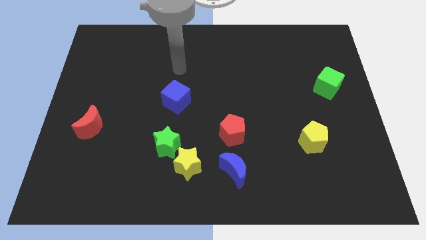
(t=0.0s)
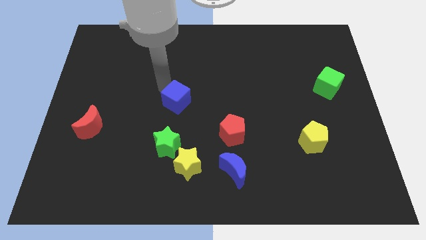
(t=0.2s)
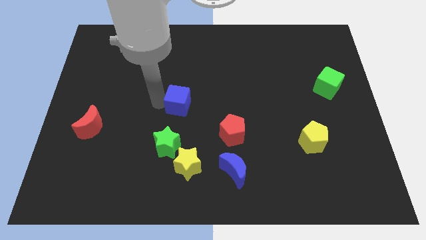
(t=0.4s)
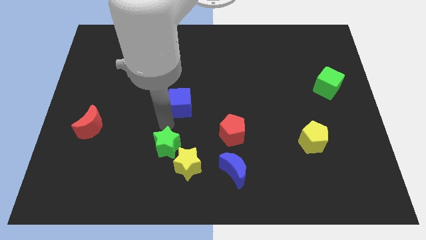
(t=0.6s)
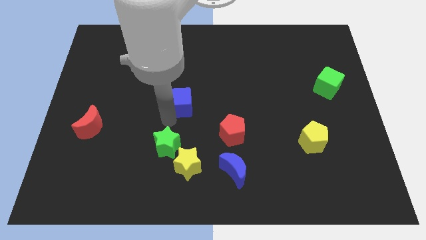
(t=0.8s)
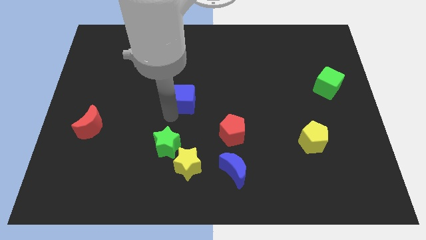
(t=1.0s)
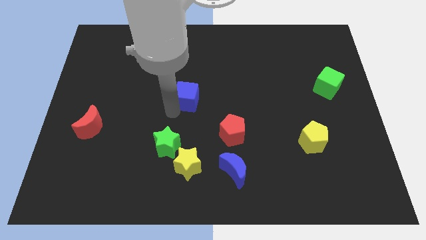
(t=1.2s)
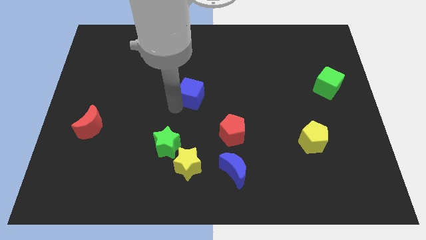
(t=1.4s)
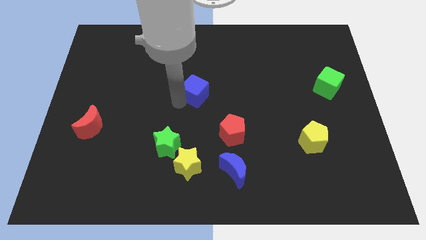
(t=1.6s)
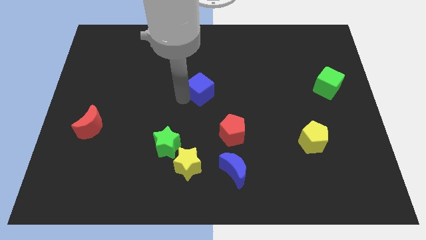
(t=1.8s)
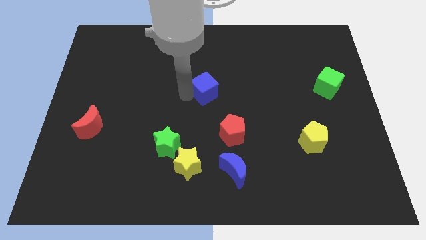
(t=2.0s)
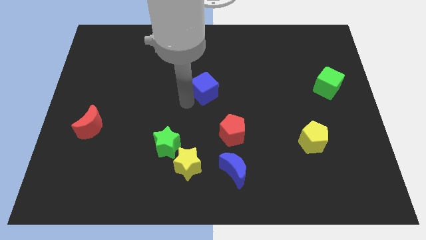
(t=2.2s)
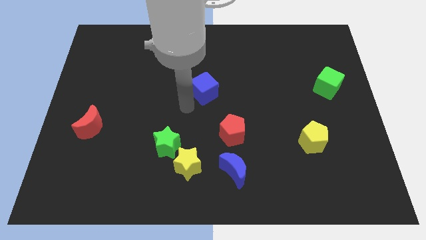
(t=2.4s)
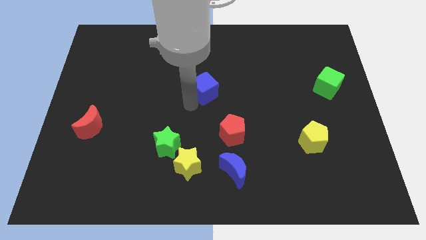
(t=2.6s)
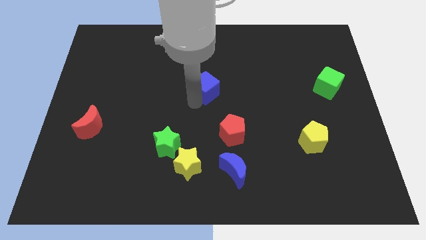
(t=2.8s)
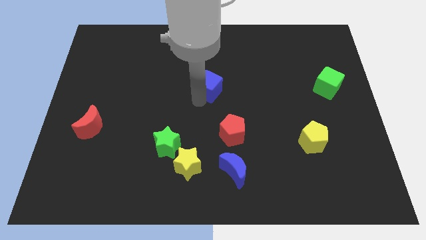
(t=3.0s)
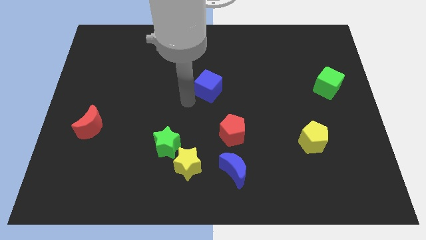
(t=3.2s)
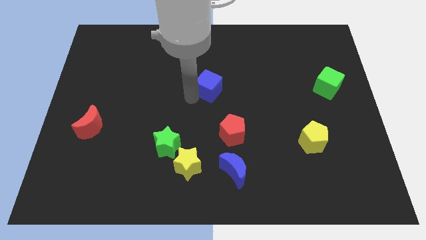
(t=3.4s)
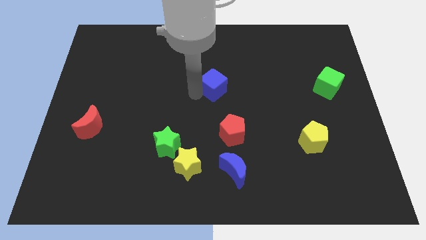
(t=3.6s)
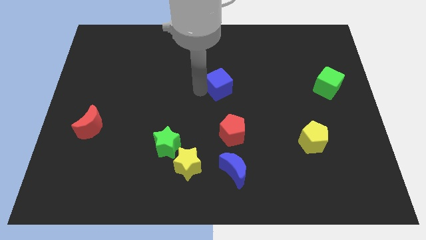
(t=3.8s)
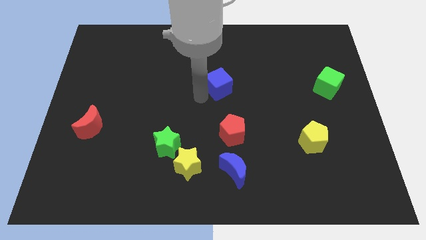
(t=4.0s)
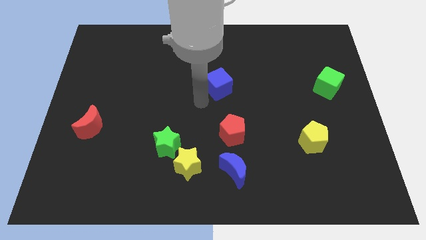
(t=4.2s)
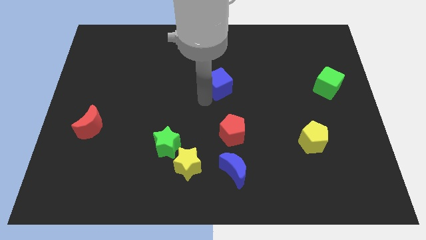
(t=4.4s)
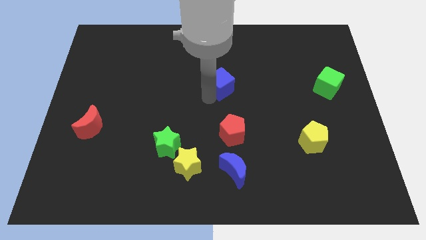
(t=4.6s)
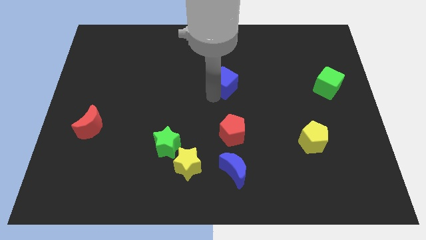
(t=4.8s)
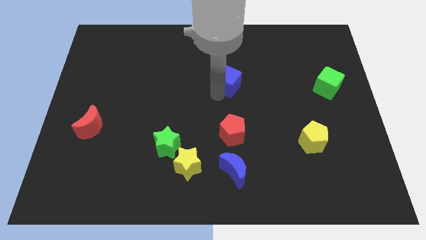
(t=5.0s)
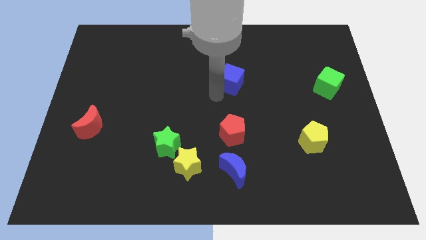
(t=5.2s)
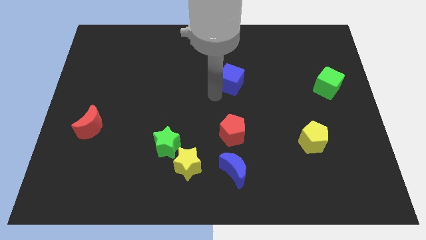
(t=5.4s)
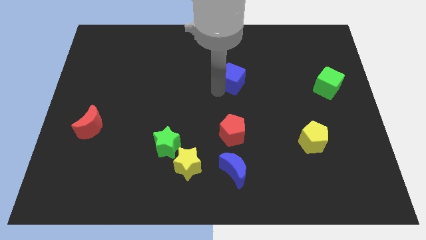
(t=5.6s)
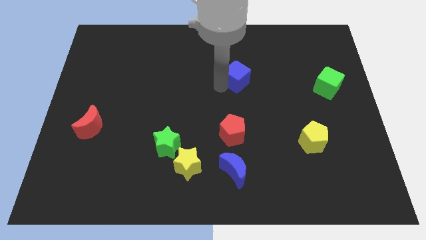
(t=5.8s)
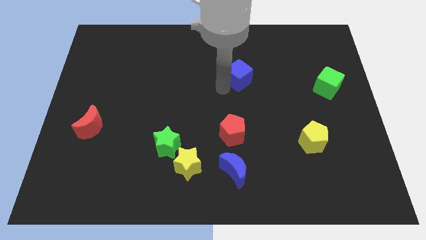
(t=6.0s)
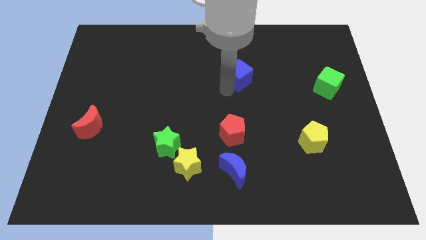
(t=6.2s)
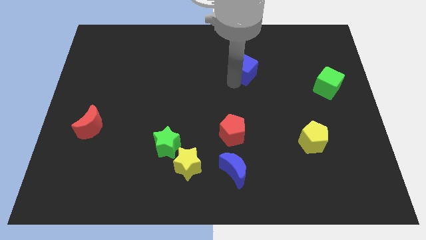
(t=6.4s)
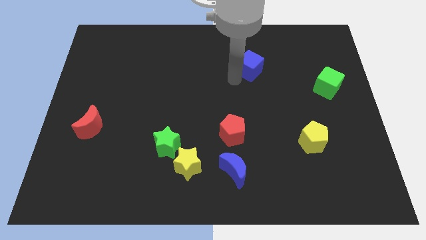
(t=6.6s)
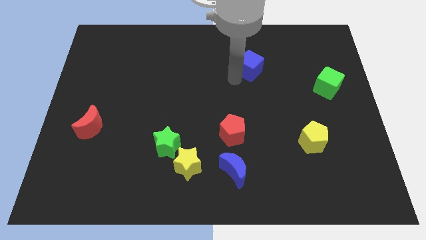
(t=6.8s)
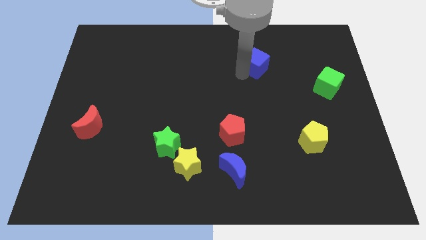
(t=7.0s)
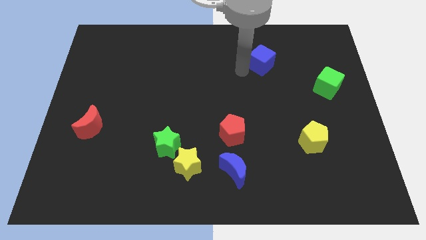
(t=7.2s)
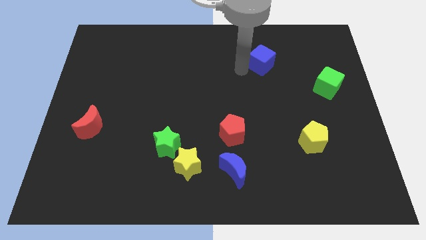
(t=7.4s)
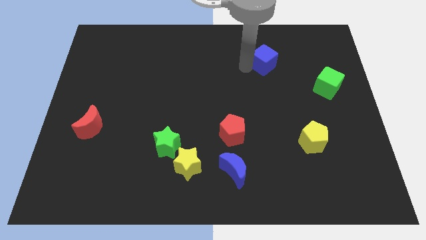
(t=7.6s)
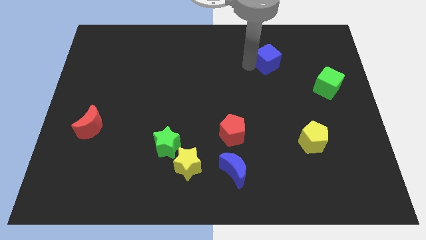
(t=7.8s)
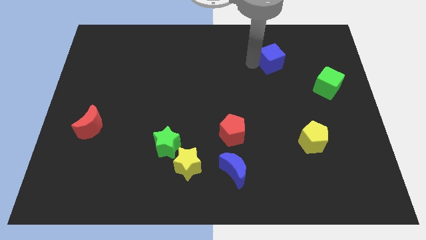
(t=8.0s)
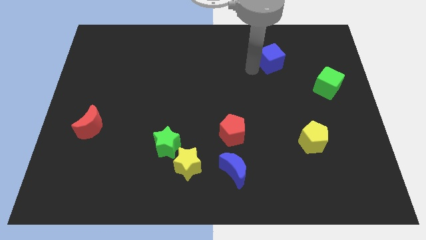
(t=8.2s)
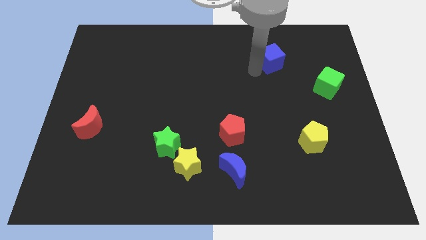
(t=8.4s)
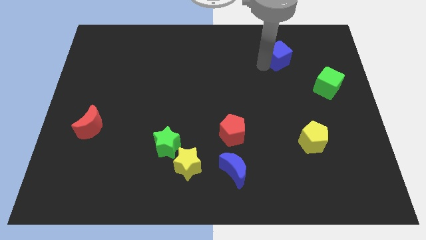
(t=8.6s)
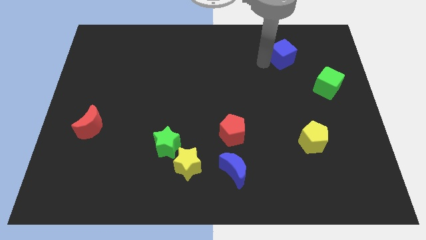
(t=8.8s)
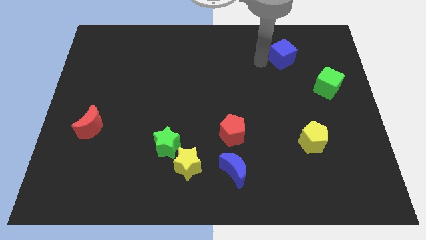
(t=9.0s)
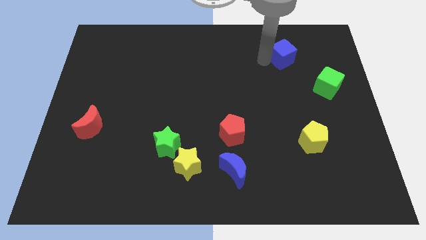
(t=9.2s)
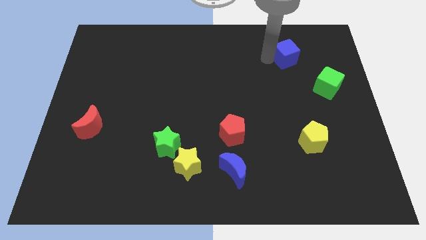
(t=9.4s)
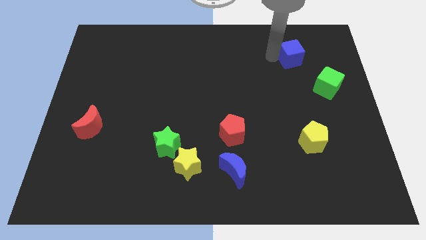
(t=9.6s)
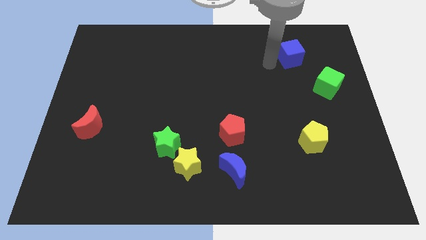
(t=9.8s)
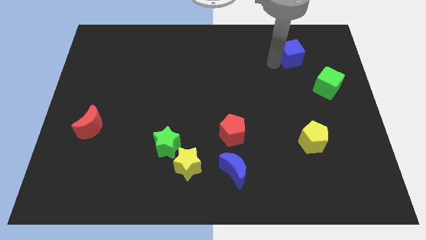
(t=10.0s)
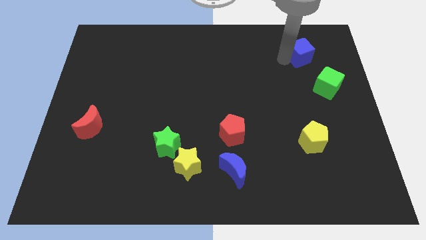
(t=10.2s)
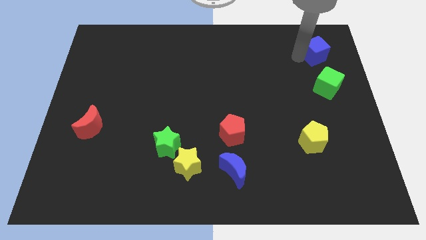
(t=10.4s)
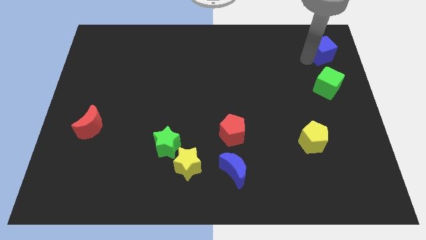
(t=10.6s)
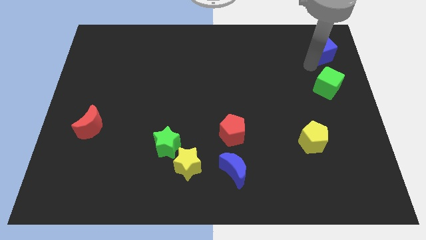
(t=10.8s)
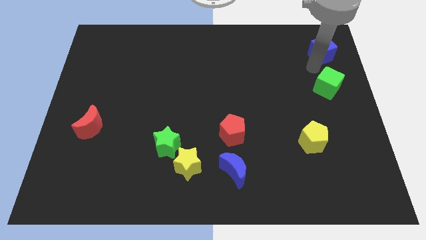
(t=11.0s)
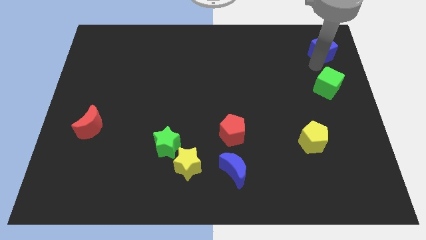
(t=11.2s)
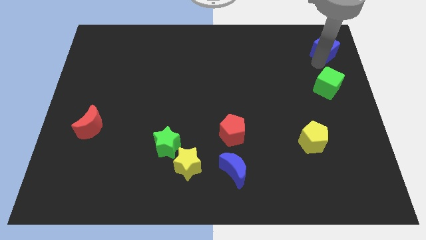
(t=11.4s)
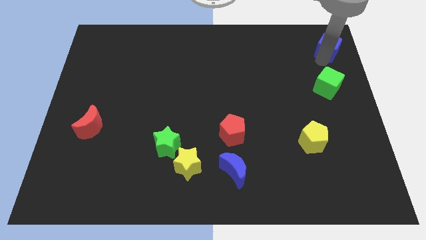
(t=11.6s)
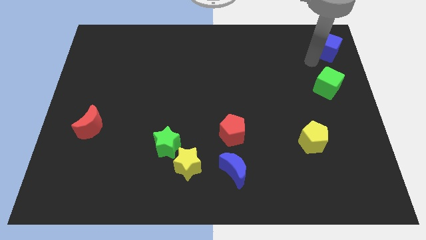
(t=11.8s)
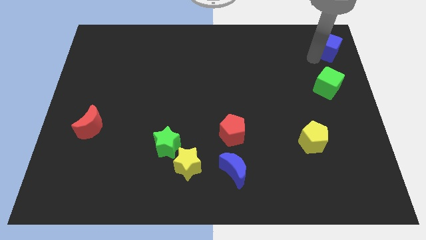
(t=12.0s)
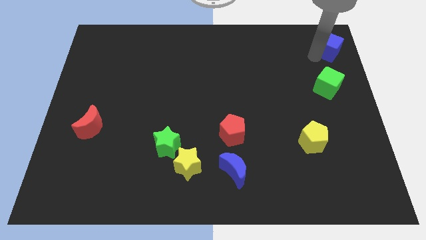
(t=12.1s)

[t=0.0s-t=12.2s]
move the blue cube to the top right
